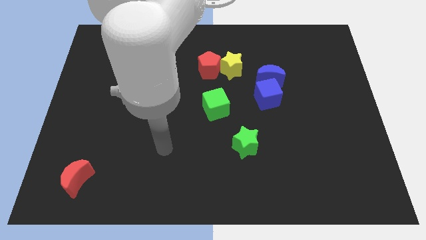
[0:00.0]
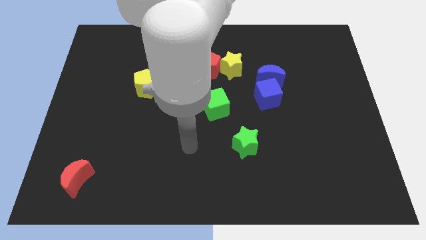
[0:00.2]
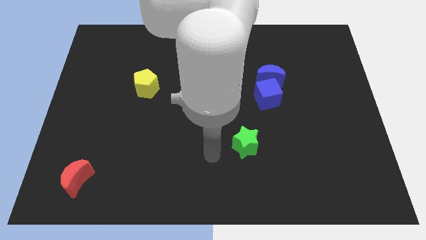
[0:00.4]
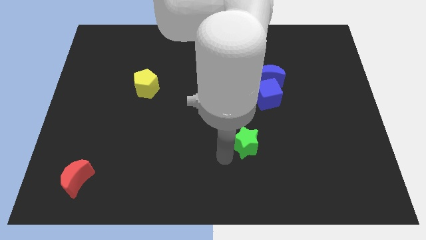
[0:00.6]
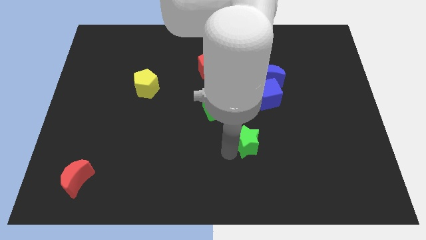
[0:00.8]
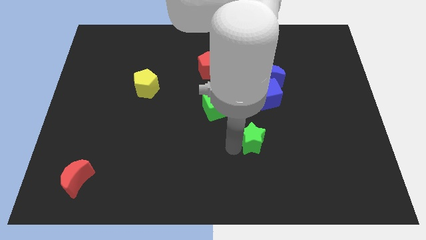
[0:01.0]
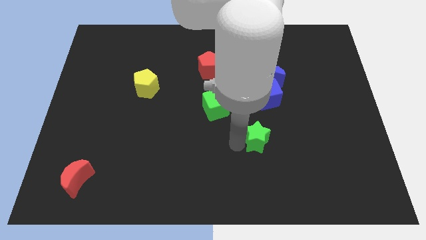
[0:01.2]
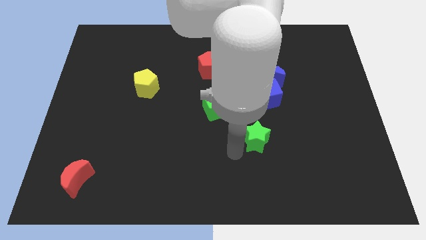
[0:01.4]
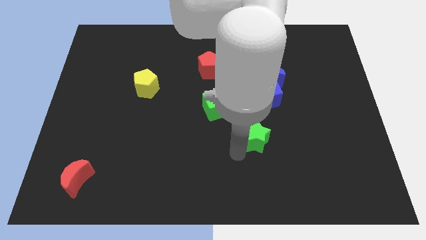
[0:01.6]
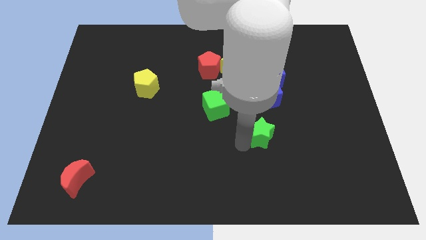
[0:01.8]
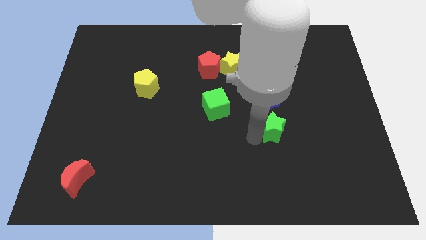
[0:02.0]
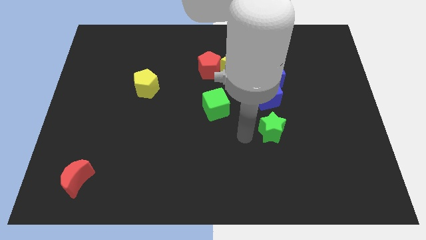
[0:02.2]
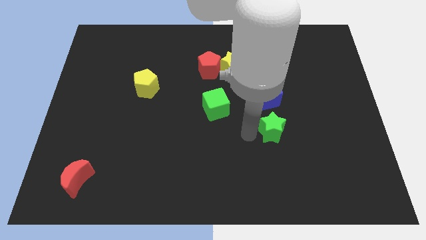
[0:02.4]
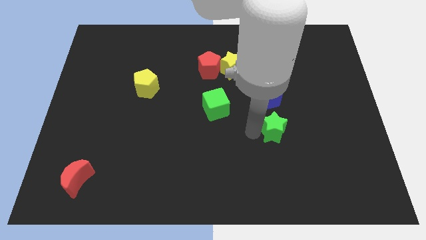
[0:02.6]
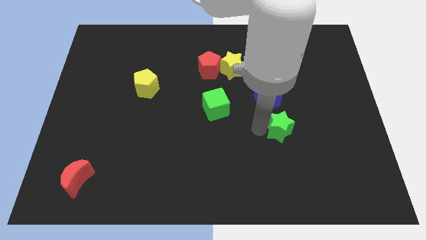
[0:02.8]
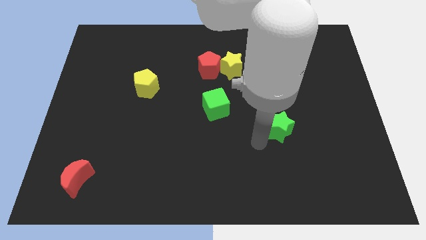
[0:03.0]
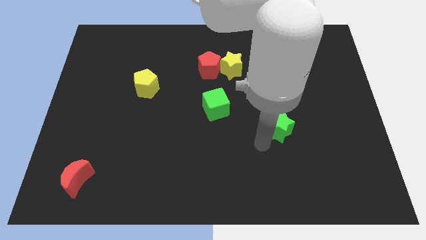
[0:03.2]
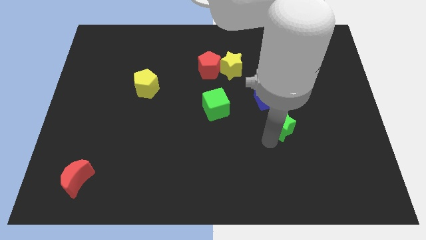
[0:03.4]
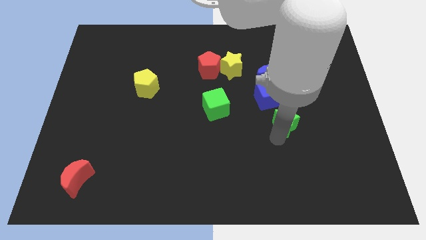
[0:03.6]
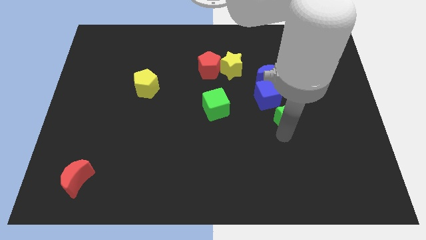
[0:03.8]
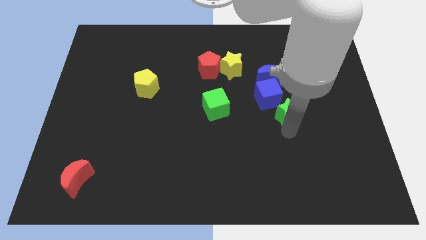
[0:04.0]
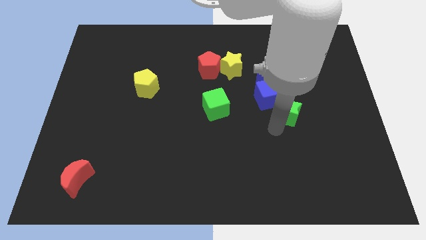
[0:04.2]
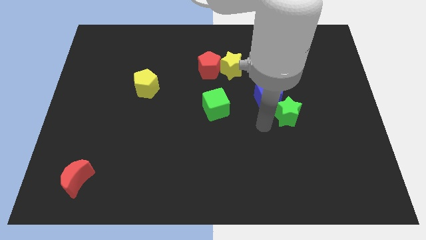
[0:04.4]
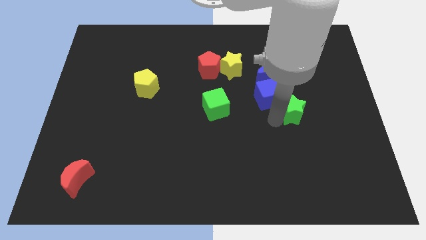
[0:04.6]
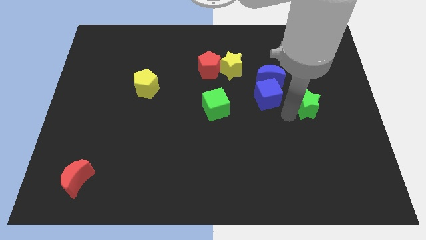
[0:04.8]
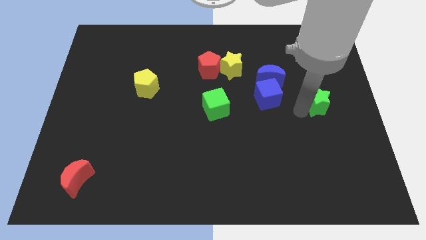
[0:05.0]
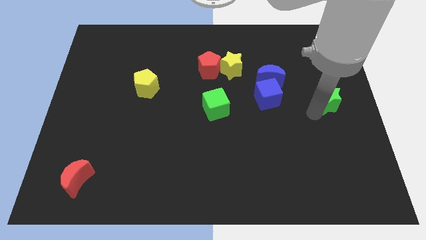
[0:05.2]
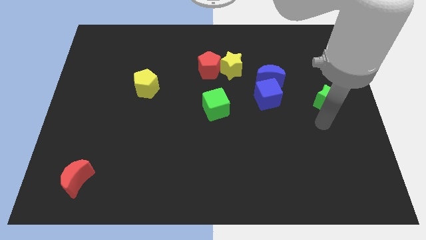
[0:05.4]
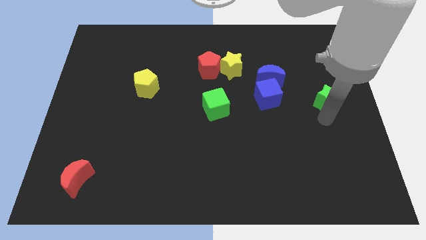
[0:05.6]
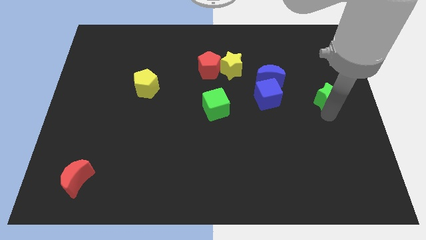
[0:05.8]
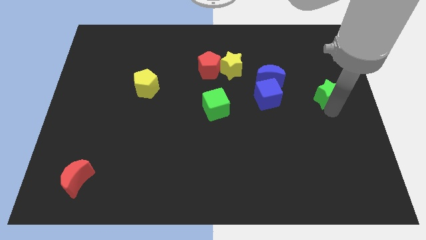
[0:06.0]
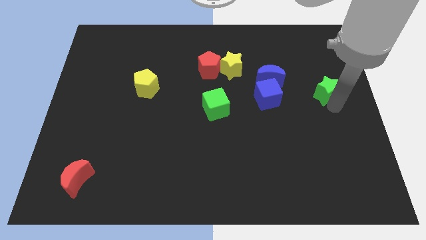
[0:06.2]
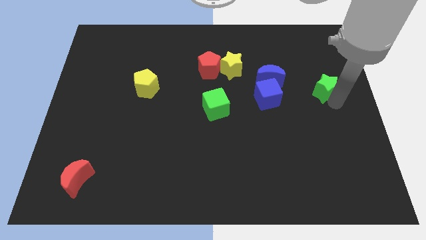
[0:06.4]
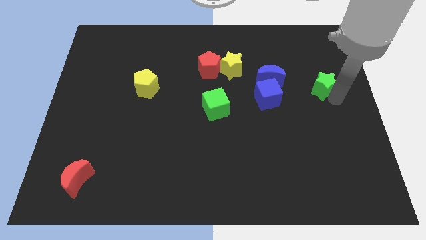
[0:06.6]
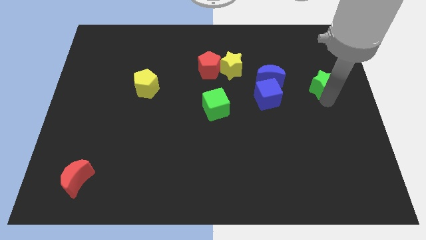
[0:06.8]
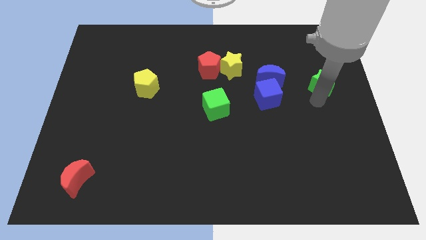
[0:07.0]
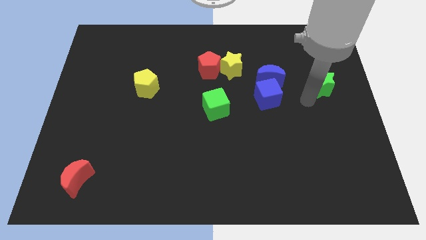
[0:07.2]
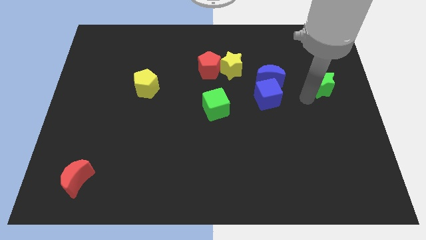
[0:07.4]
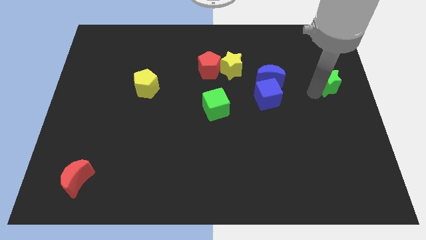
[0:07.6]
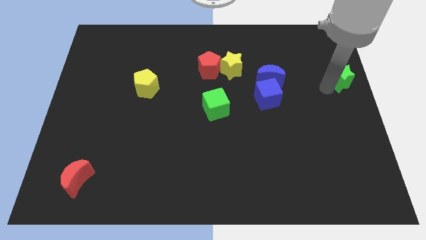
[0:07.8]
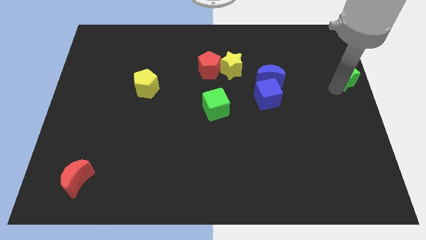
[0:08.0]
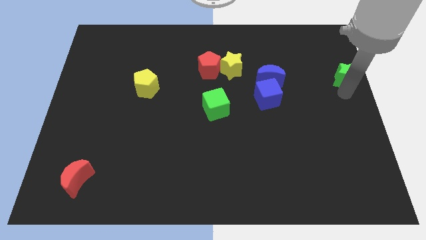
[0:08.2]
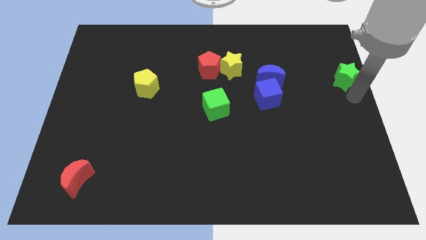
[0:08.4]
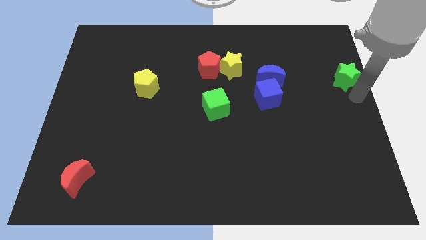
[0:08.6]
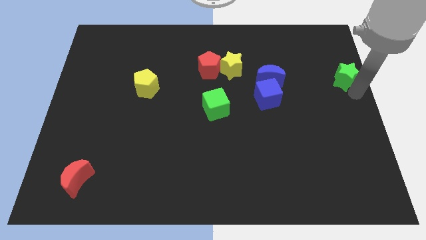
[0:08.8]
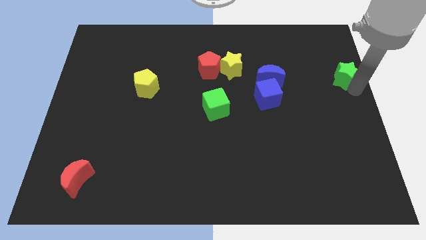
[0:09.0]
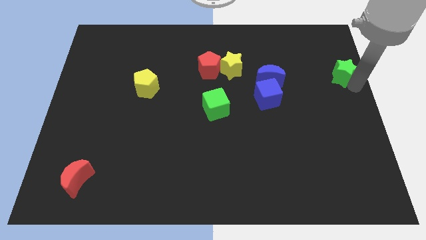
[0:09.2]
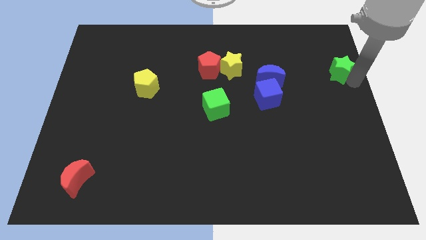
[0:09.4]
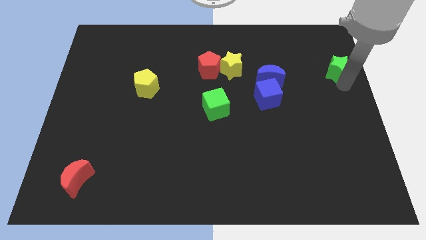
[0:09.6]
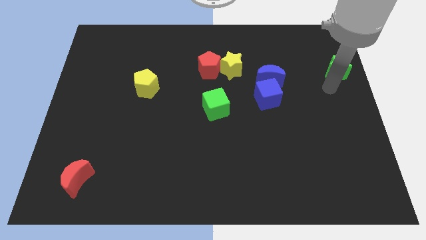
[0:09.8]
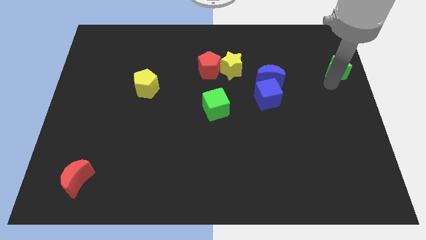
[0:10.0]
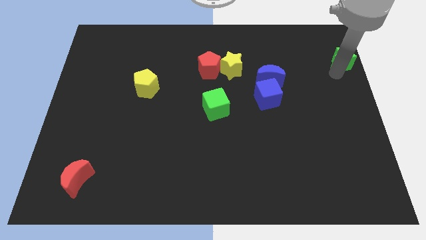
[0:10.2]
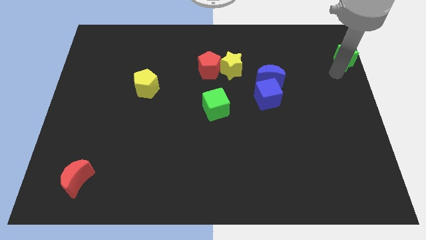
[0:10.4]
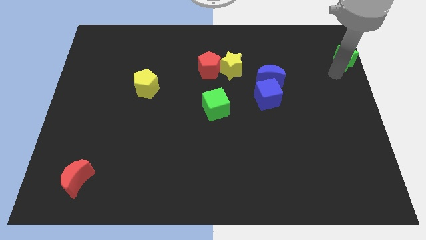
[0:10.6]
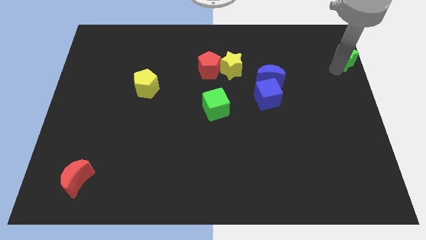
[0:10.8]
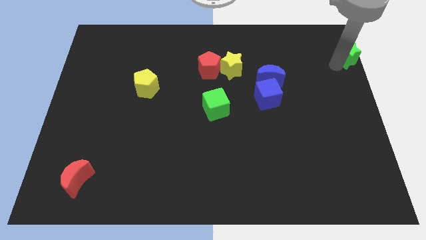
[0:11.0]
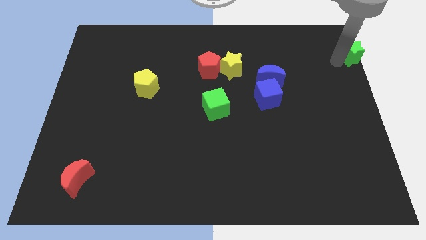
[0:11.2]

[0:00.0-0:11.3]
slide the green star to the top right corner
